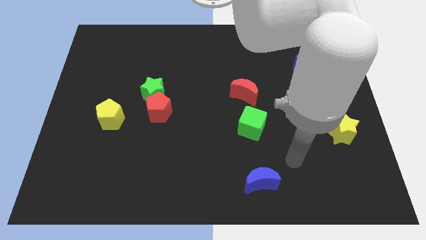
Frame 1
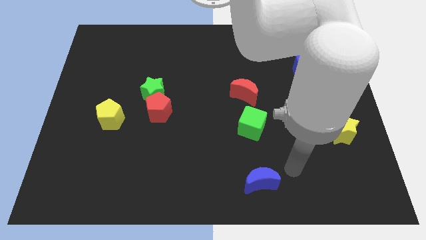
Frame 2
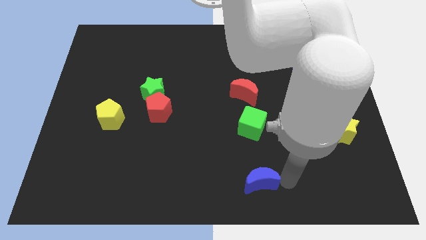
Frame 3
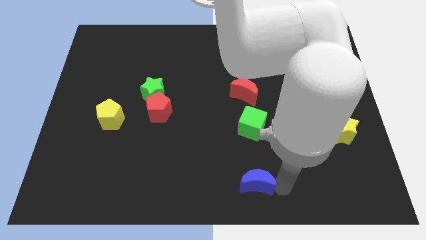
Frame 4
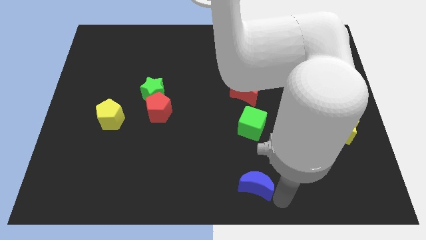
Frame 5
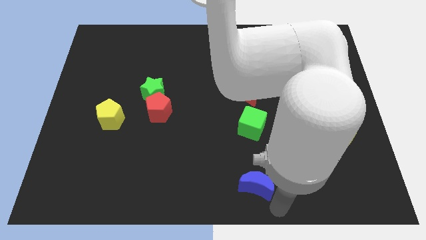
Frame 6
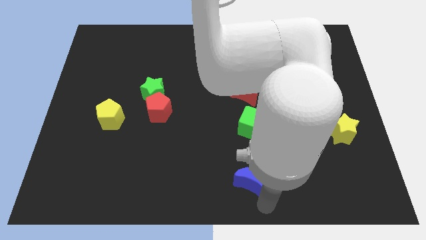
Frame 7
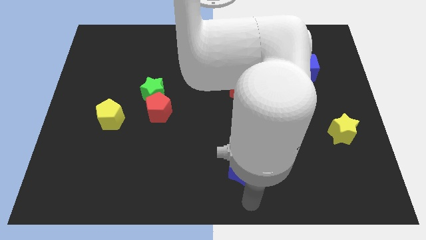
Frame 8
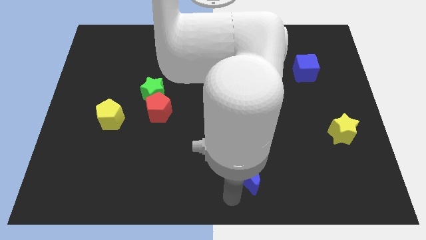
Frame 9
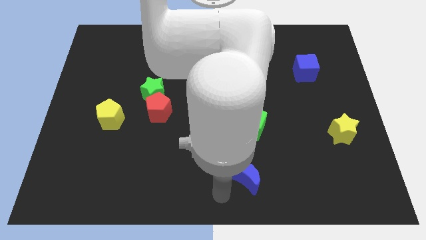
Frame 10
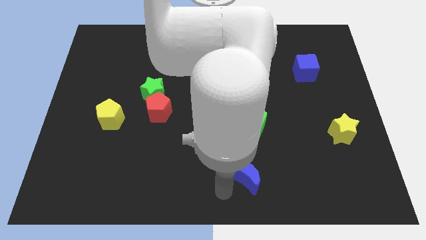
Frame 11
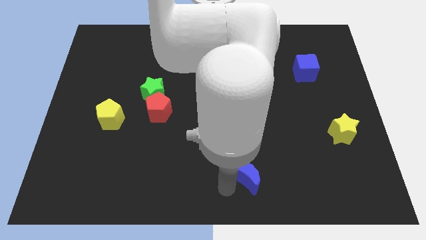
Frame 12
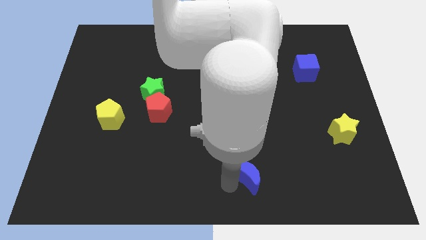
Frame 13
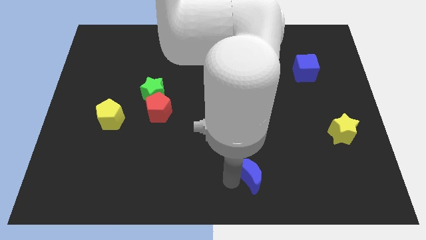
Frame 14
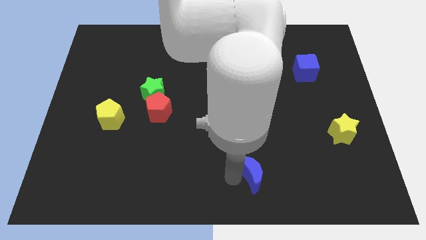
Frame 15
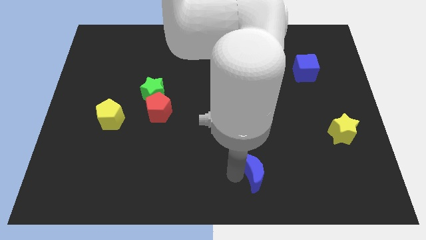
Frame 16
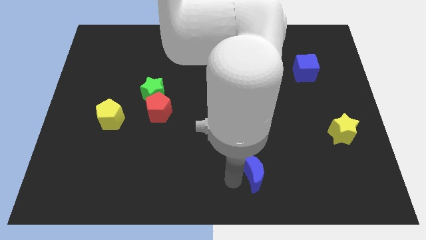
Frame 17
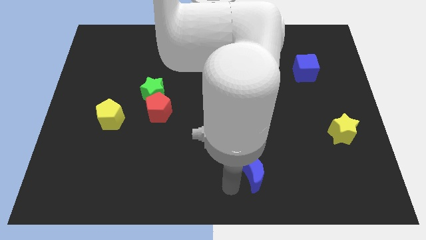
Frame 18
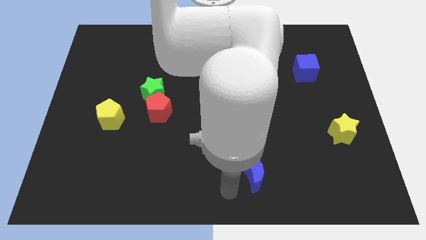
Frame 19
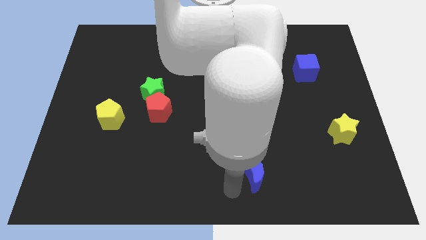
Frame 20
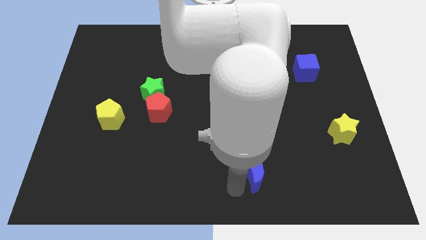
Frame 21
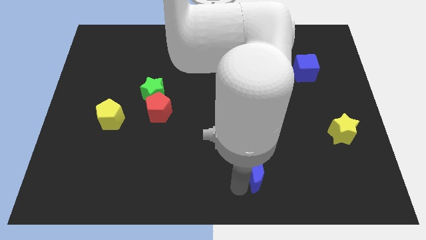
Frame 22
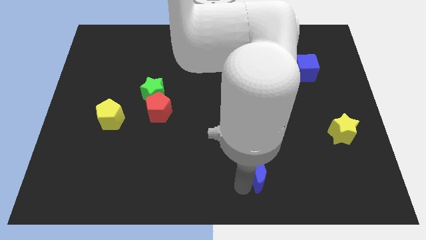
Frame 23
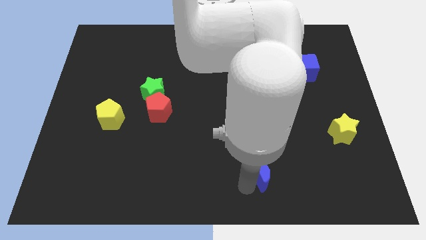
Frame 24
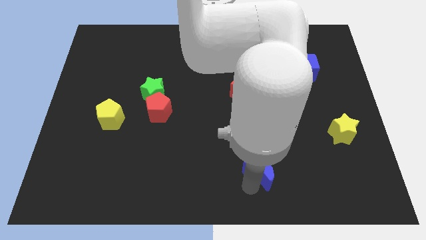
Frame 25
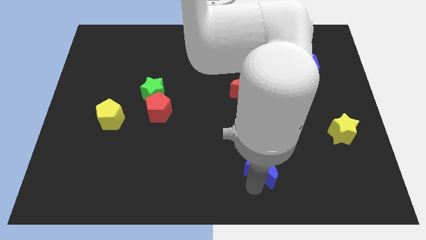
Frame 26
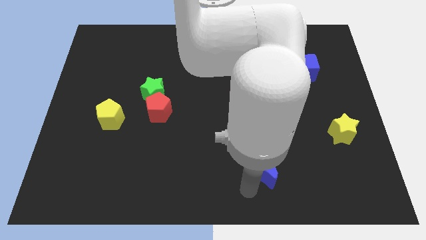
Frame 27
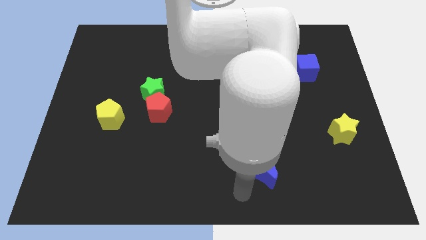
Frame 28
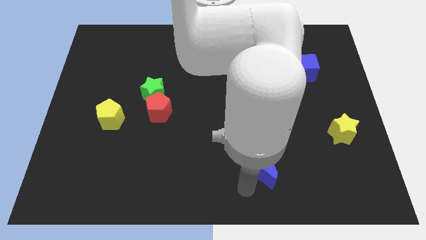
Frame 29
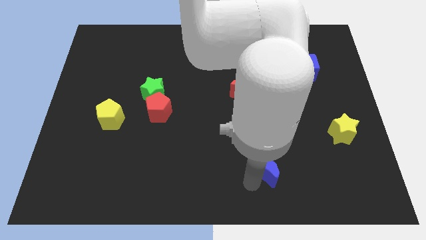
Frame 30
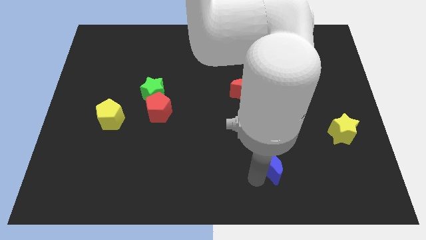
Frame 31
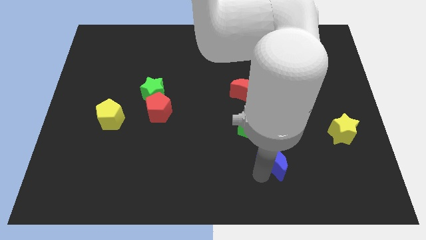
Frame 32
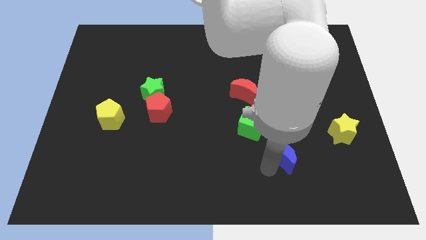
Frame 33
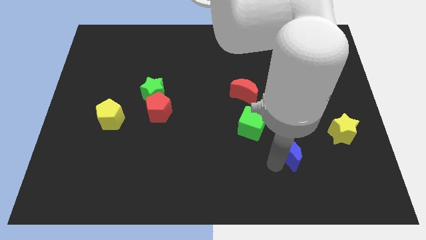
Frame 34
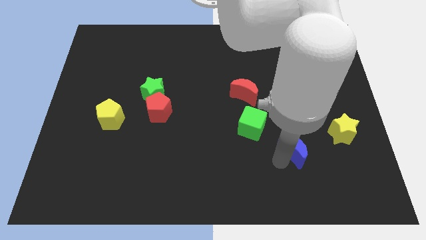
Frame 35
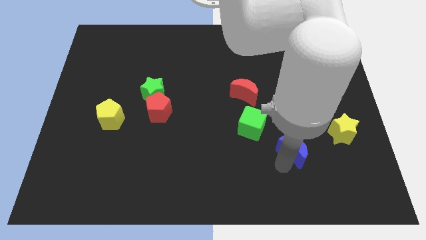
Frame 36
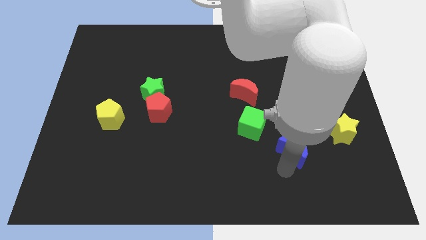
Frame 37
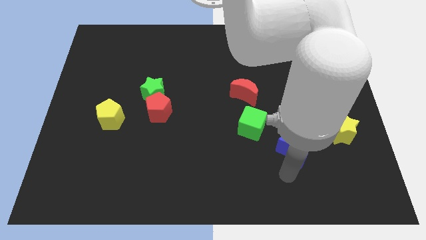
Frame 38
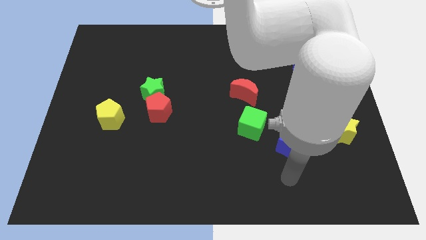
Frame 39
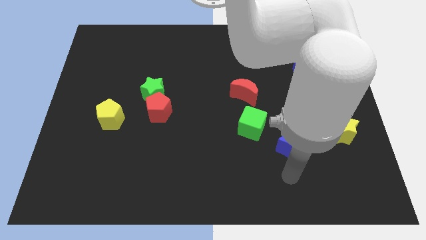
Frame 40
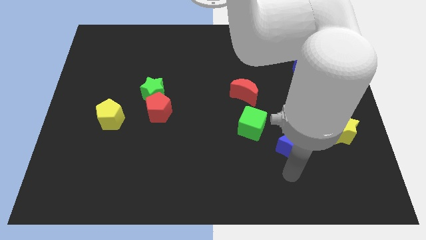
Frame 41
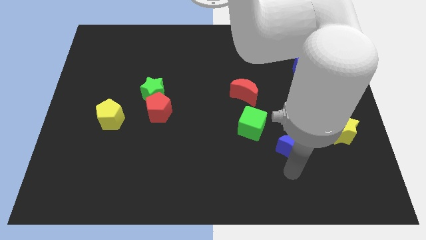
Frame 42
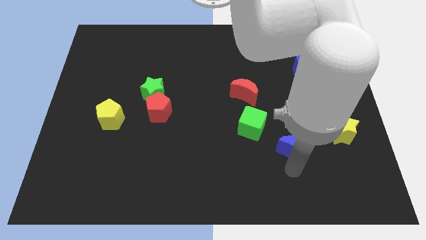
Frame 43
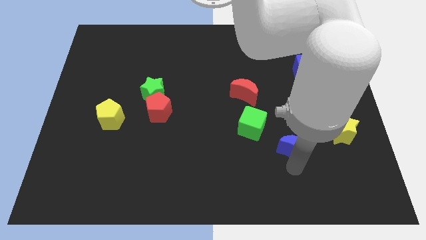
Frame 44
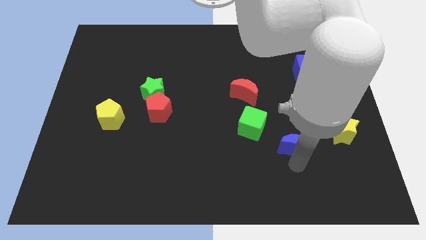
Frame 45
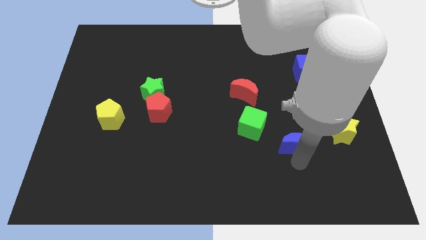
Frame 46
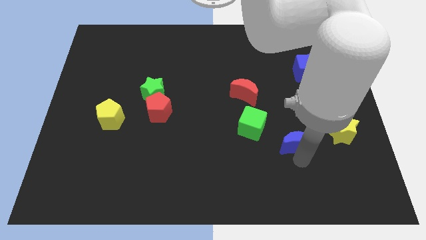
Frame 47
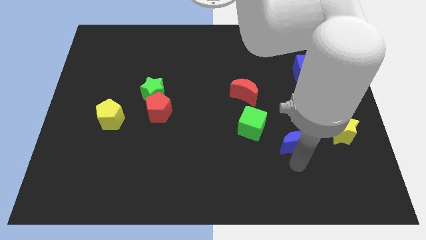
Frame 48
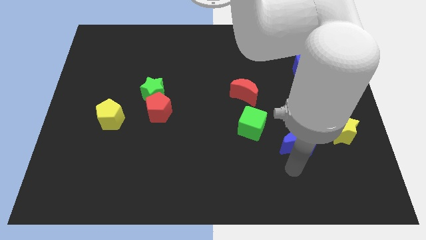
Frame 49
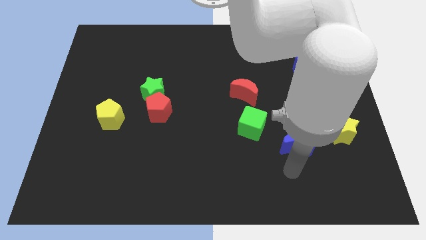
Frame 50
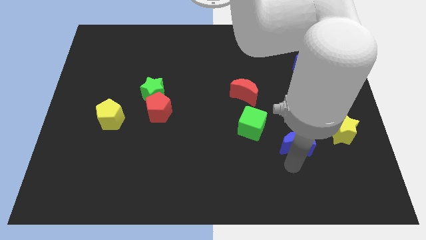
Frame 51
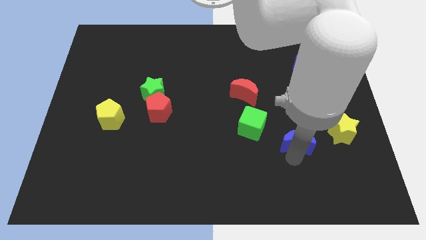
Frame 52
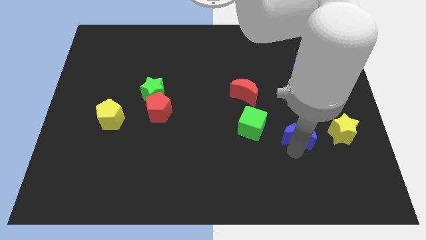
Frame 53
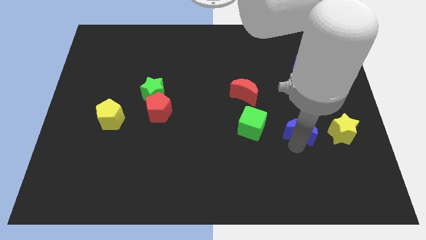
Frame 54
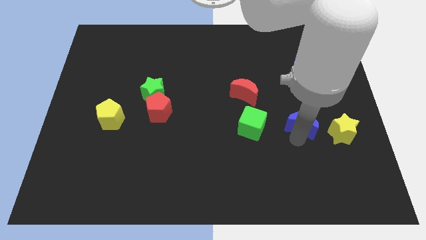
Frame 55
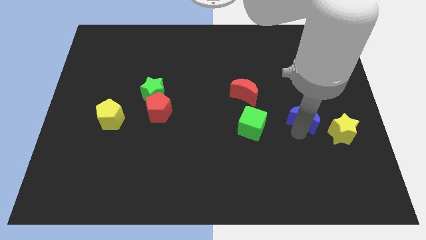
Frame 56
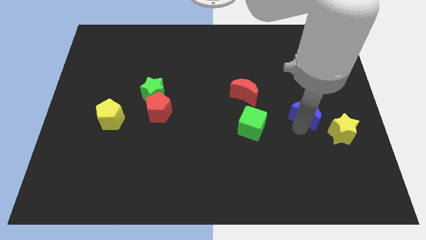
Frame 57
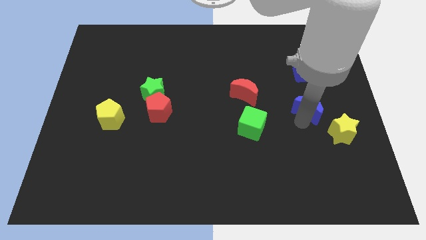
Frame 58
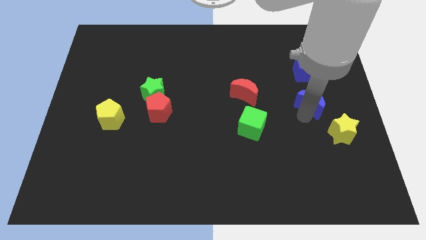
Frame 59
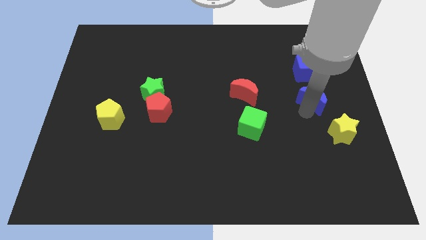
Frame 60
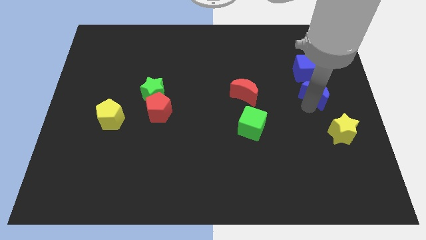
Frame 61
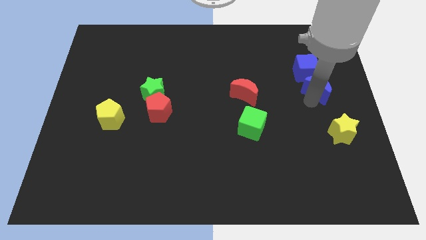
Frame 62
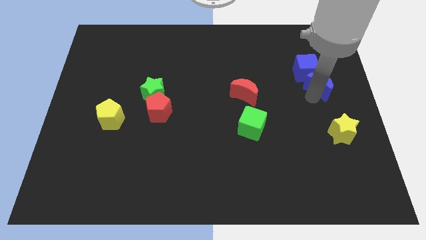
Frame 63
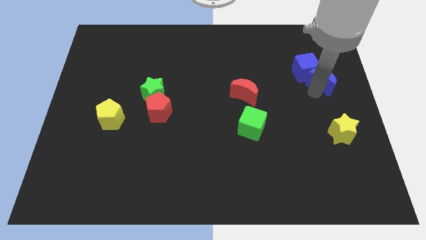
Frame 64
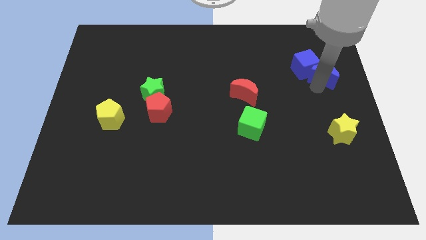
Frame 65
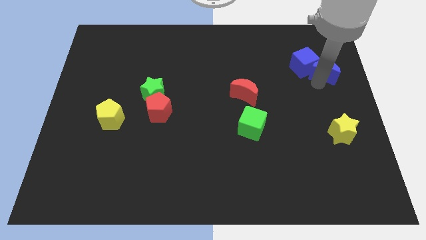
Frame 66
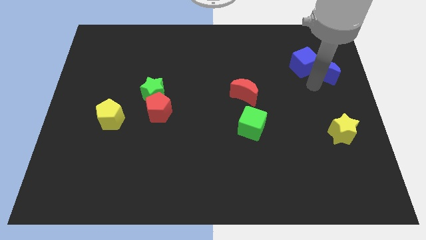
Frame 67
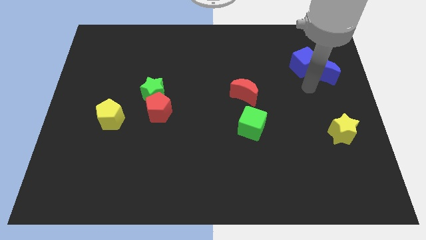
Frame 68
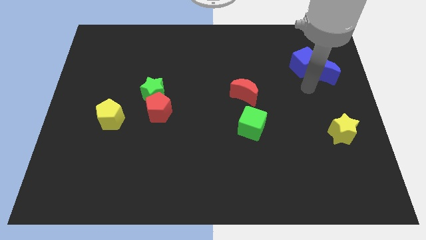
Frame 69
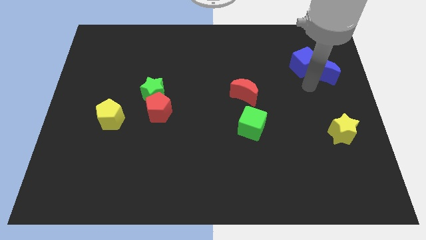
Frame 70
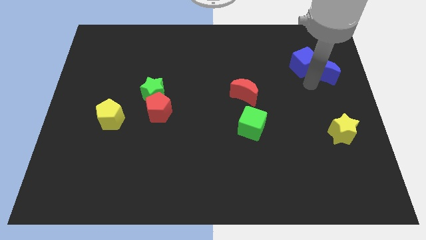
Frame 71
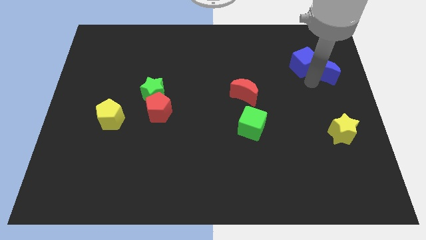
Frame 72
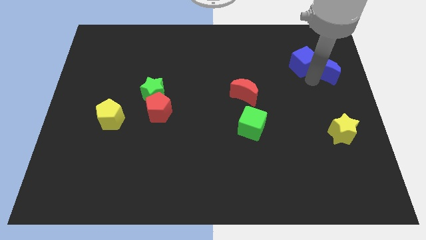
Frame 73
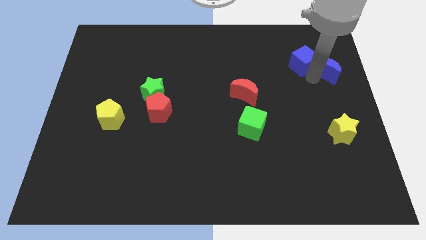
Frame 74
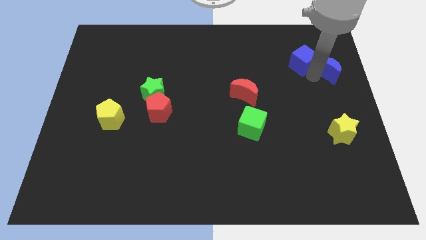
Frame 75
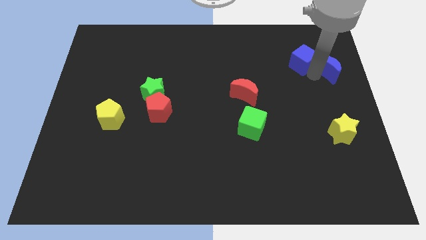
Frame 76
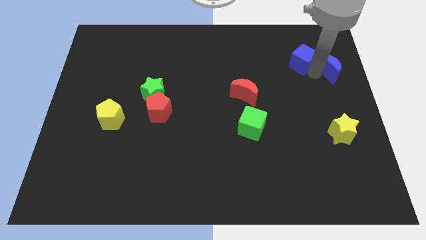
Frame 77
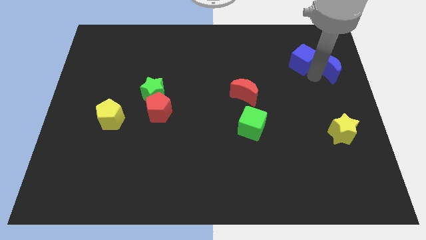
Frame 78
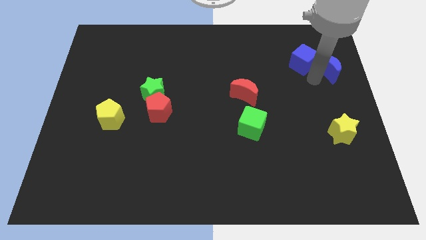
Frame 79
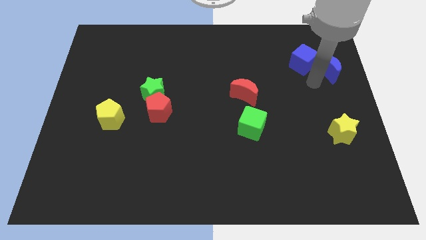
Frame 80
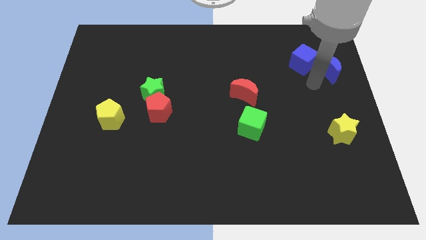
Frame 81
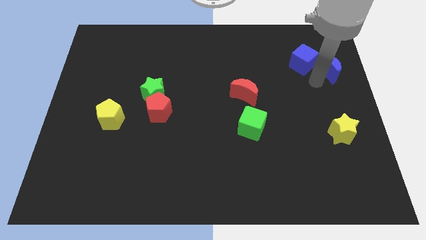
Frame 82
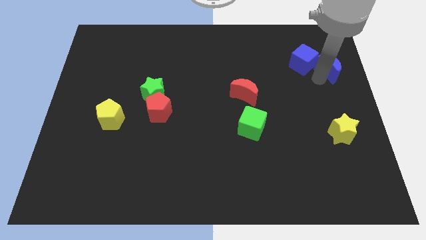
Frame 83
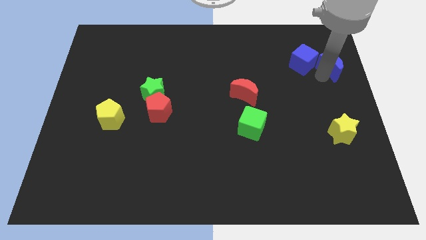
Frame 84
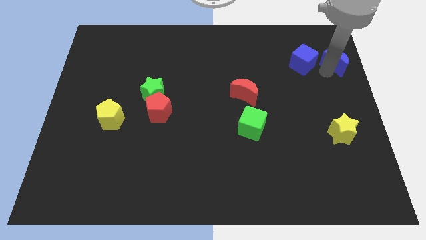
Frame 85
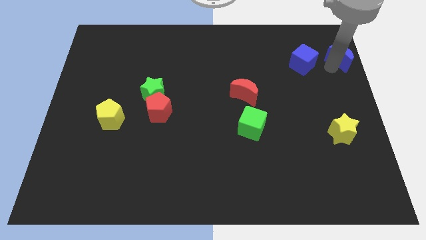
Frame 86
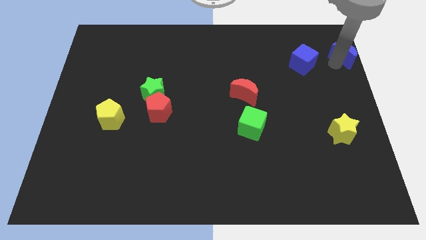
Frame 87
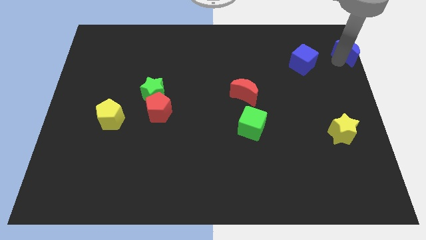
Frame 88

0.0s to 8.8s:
put the blue moon to the top right
